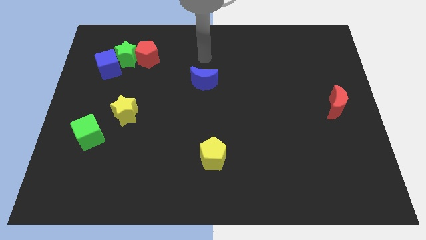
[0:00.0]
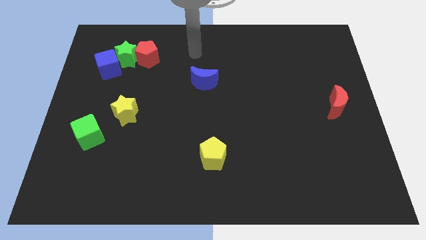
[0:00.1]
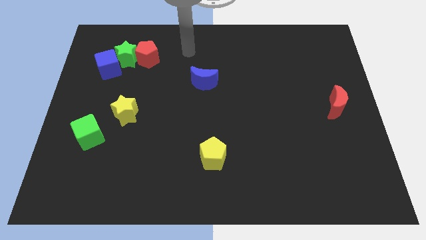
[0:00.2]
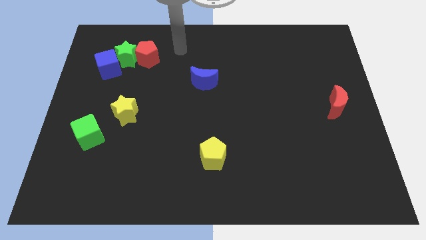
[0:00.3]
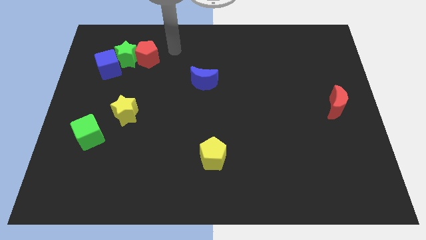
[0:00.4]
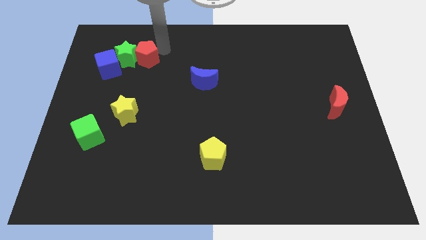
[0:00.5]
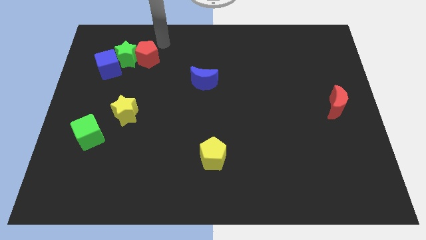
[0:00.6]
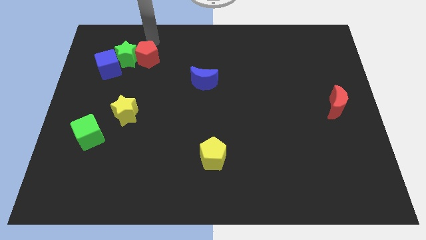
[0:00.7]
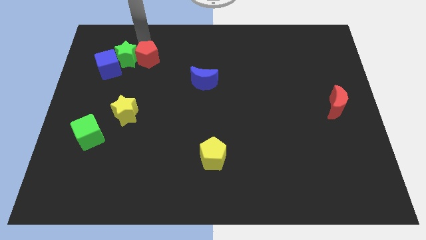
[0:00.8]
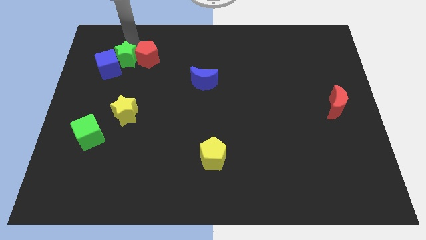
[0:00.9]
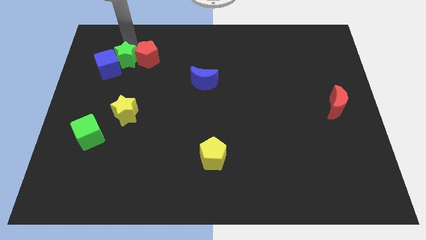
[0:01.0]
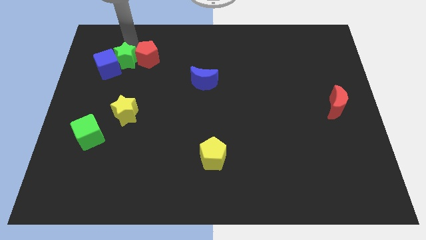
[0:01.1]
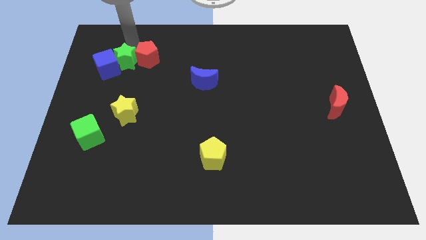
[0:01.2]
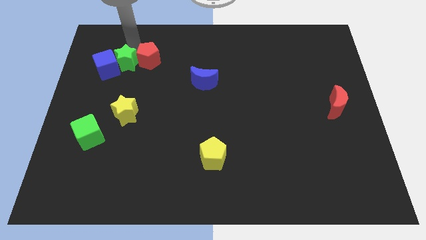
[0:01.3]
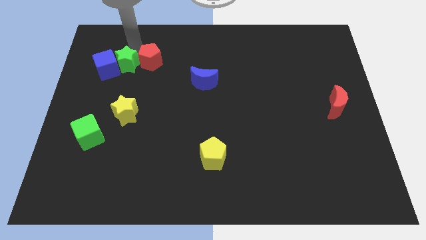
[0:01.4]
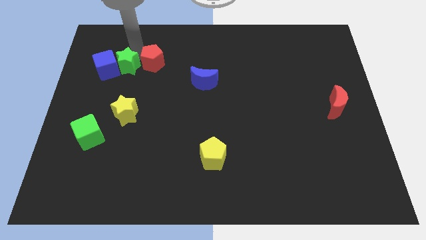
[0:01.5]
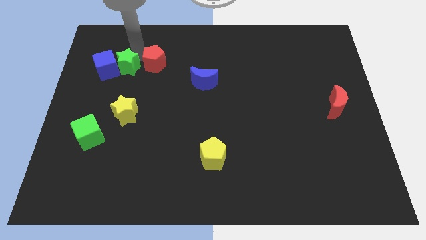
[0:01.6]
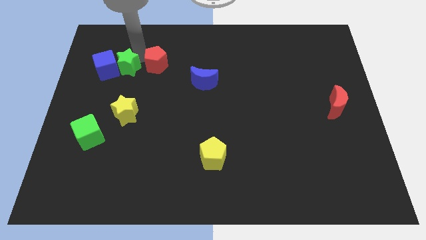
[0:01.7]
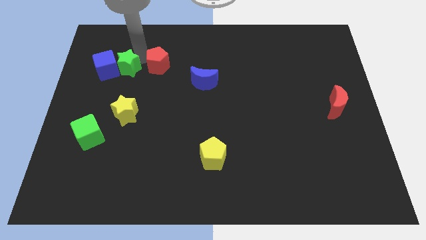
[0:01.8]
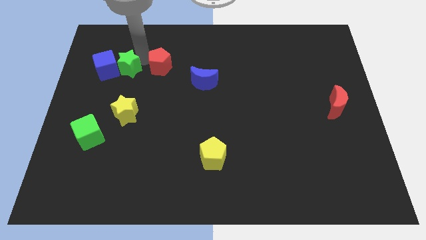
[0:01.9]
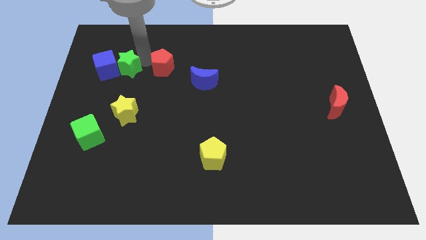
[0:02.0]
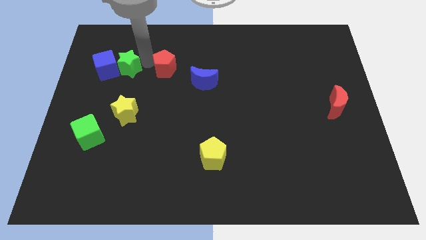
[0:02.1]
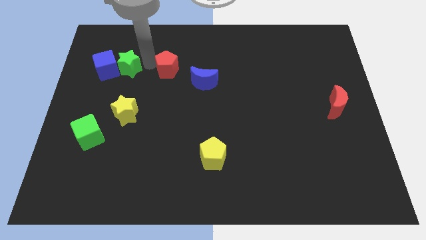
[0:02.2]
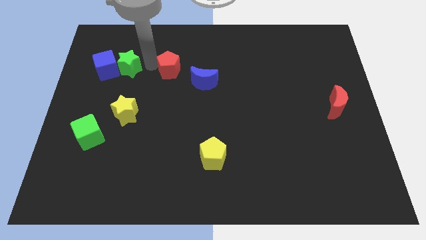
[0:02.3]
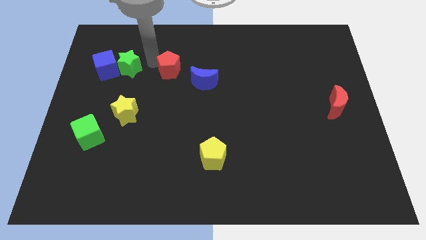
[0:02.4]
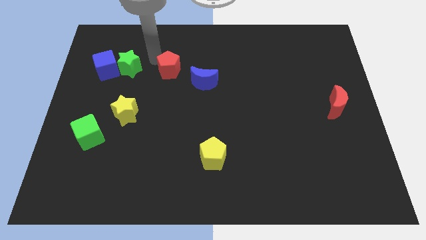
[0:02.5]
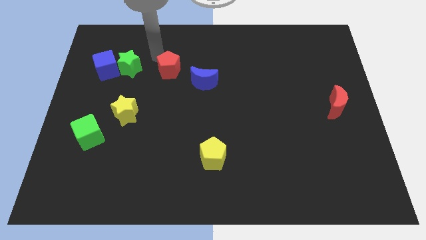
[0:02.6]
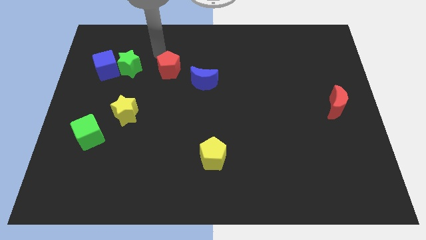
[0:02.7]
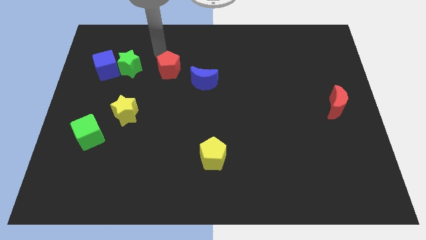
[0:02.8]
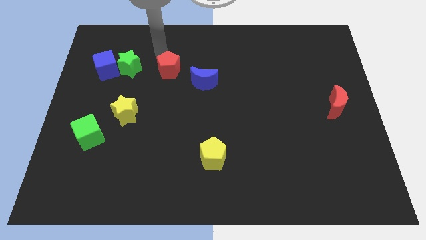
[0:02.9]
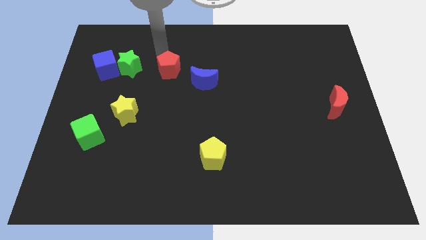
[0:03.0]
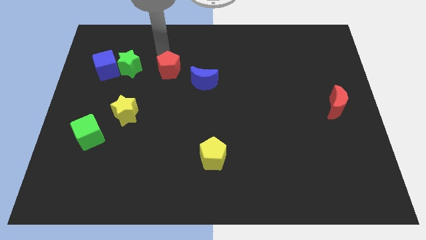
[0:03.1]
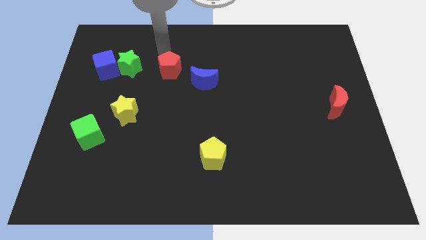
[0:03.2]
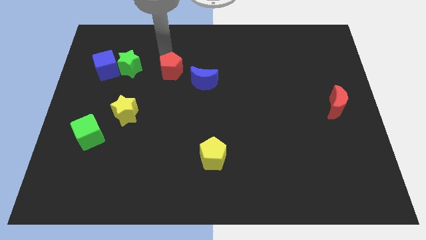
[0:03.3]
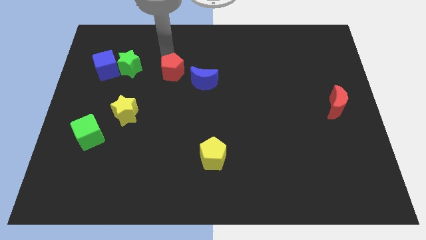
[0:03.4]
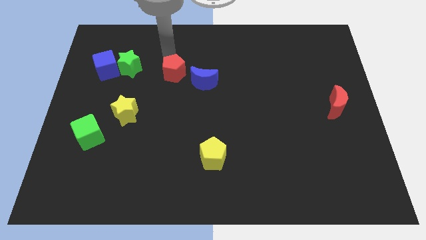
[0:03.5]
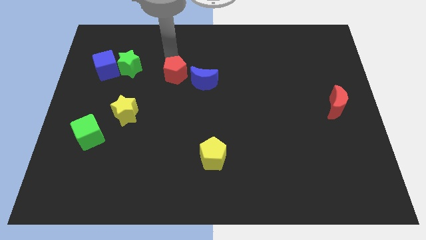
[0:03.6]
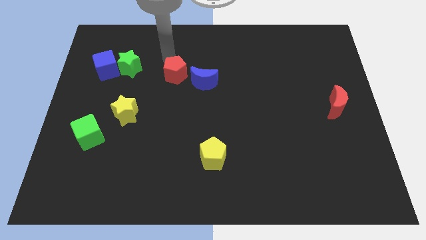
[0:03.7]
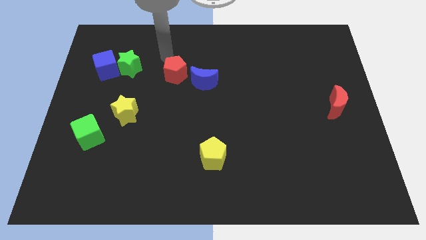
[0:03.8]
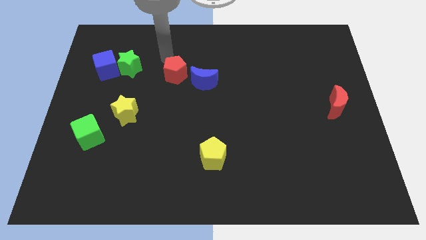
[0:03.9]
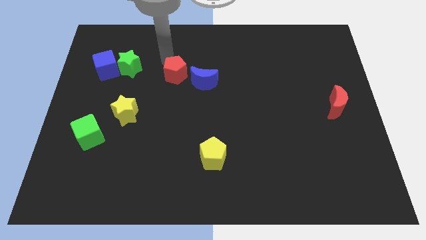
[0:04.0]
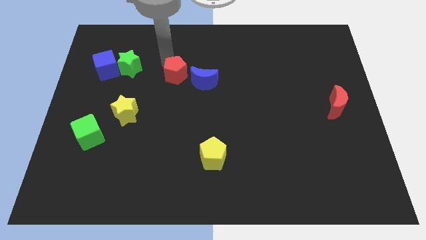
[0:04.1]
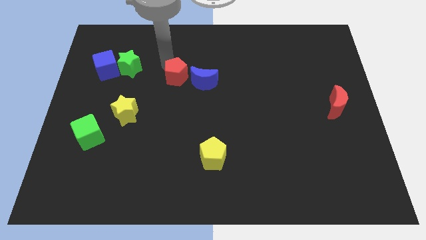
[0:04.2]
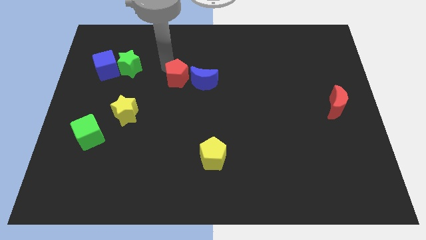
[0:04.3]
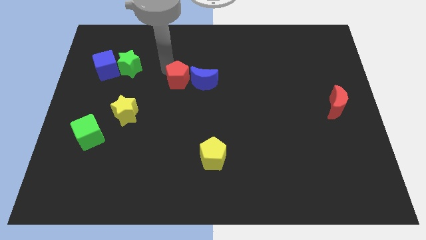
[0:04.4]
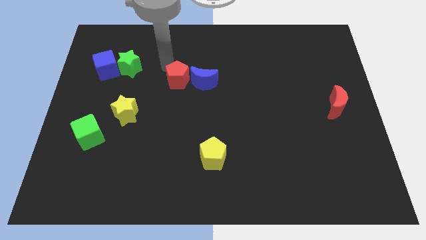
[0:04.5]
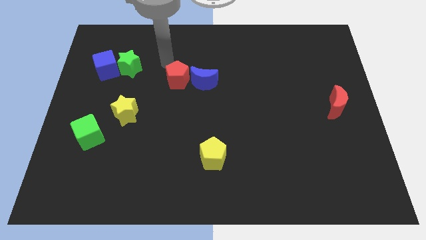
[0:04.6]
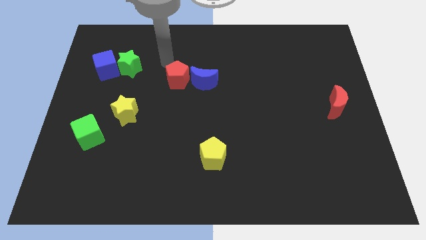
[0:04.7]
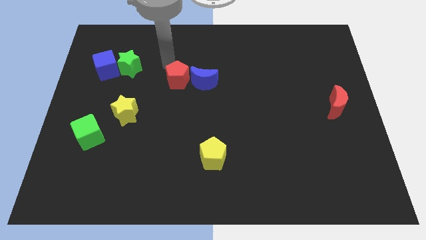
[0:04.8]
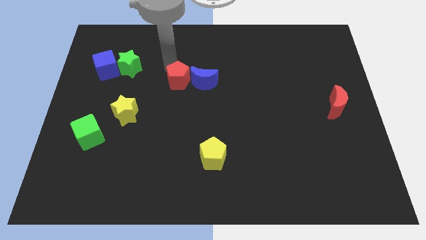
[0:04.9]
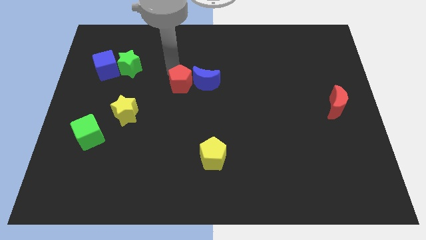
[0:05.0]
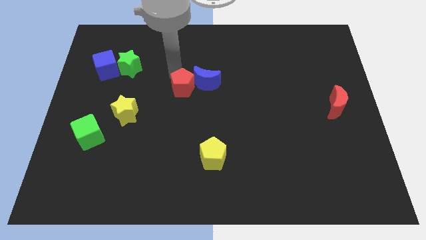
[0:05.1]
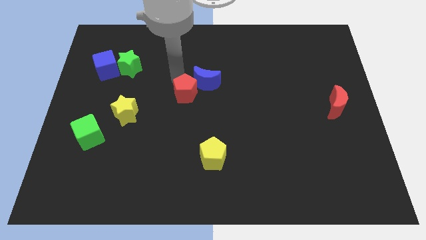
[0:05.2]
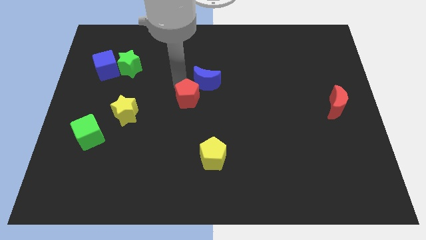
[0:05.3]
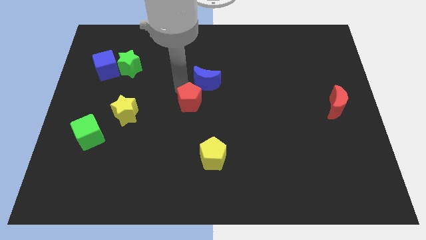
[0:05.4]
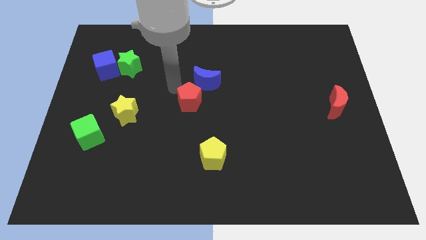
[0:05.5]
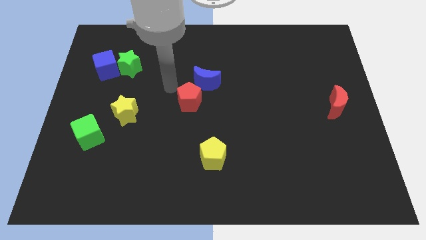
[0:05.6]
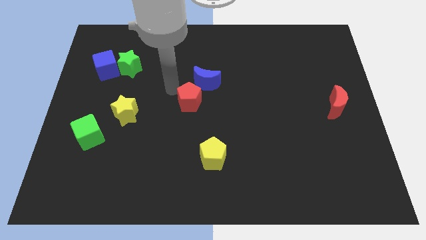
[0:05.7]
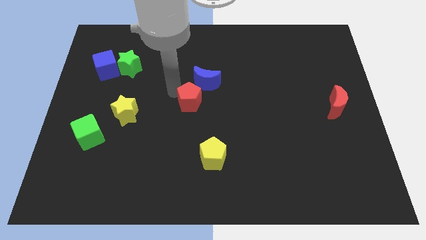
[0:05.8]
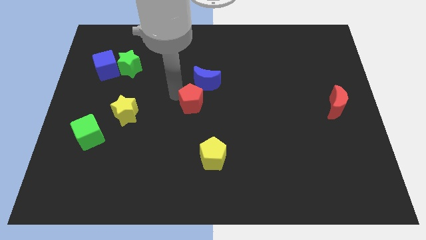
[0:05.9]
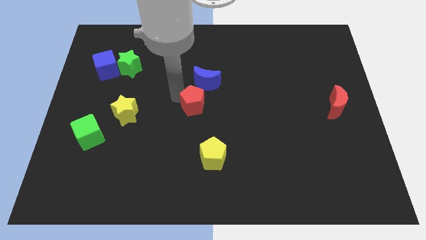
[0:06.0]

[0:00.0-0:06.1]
push the red pentagon down and to the right diagonally

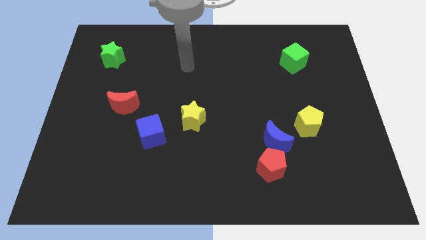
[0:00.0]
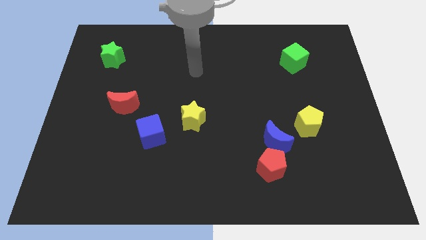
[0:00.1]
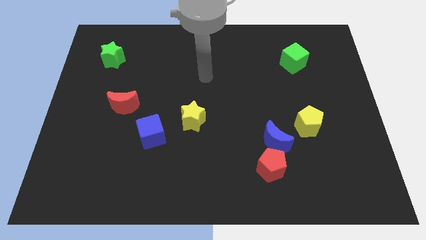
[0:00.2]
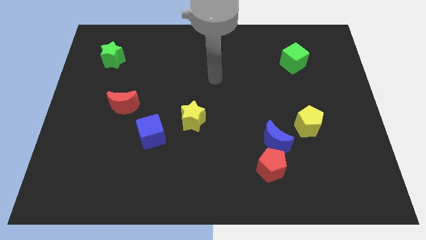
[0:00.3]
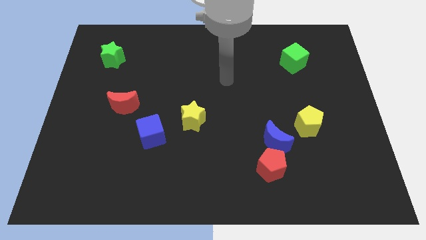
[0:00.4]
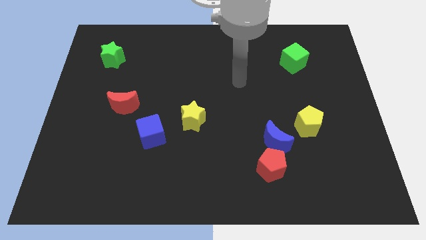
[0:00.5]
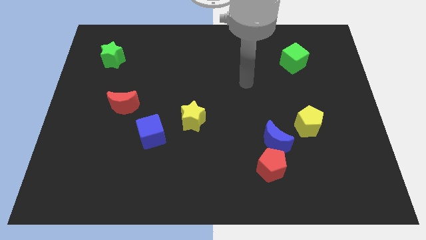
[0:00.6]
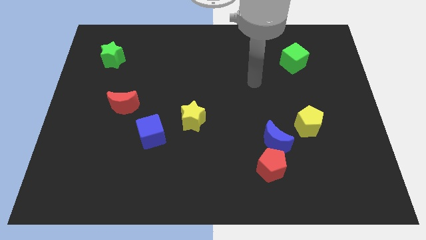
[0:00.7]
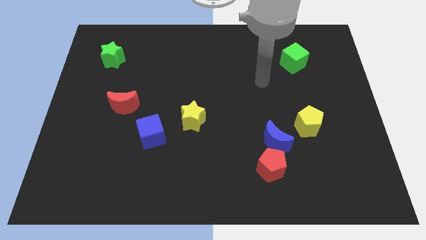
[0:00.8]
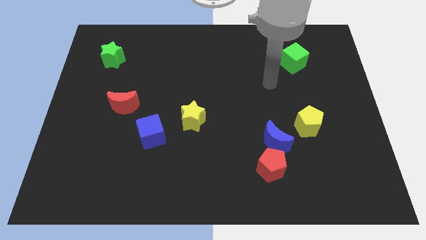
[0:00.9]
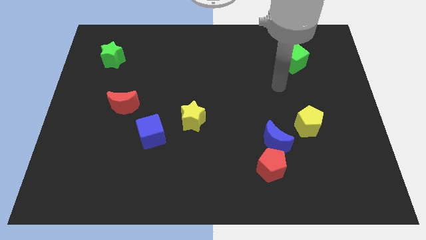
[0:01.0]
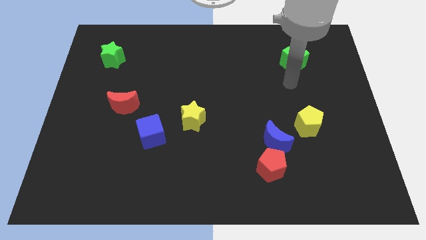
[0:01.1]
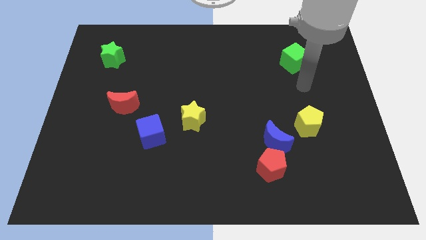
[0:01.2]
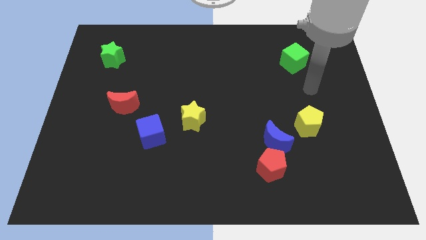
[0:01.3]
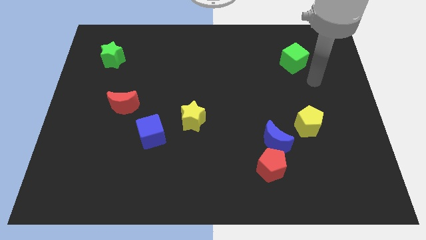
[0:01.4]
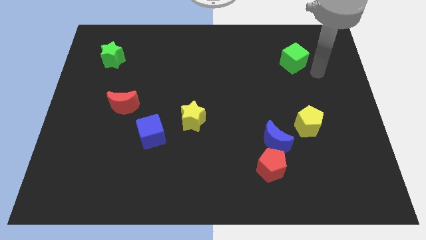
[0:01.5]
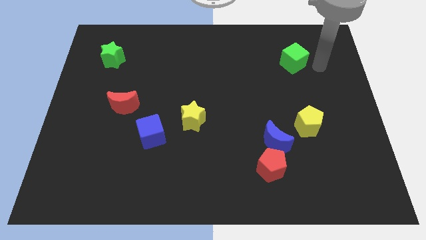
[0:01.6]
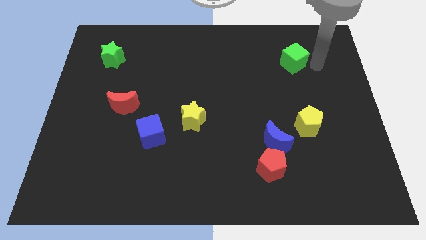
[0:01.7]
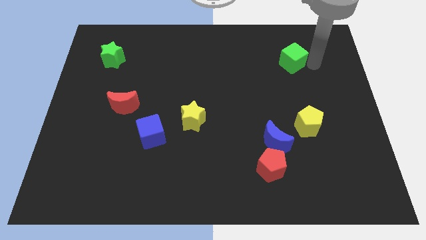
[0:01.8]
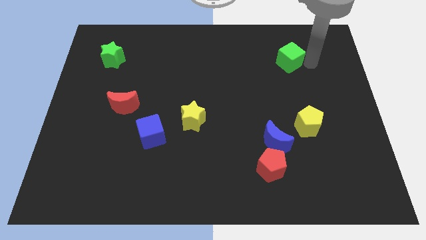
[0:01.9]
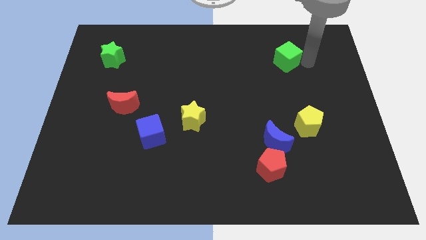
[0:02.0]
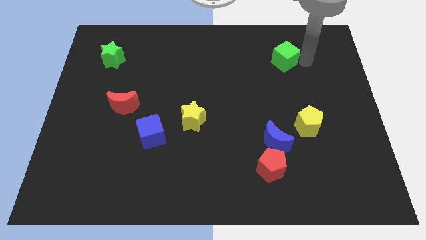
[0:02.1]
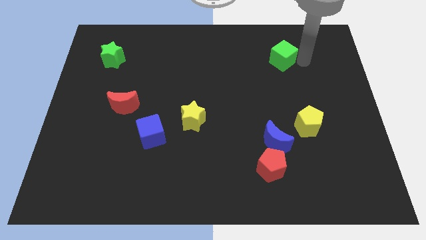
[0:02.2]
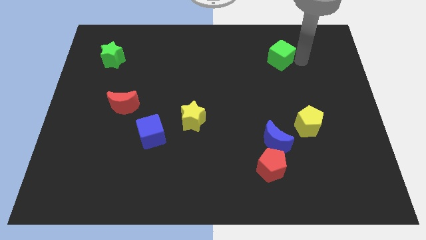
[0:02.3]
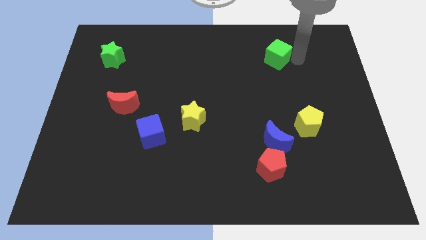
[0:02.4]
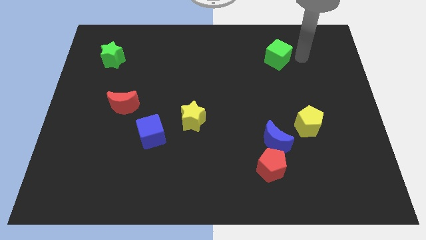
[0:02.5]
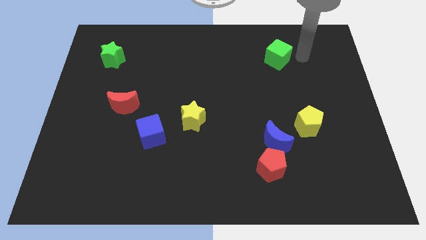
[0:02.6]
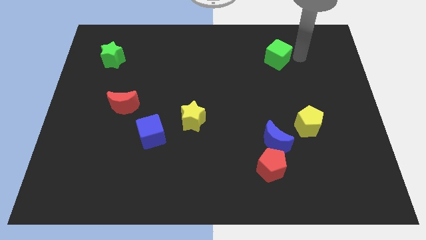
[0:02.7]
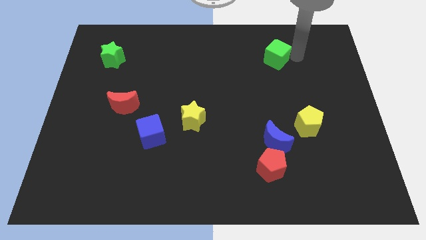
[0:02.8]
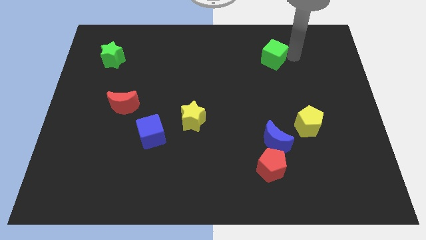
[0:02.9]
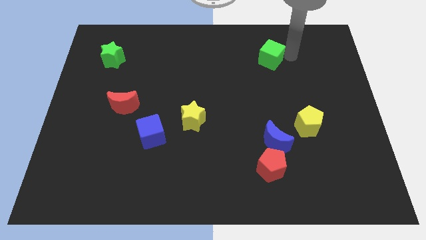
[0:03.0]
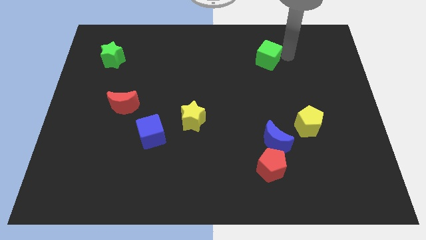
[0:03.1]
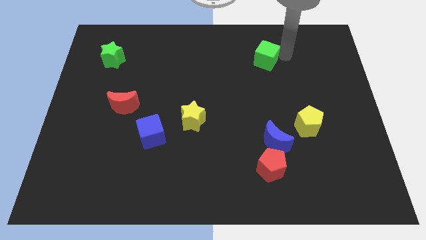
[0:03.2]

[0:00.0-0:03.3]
push the green cube to the left a bit
